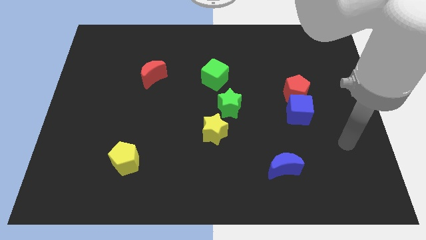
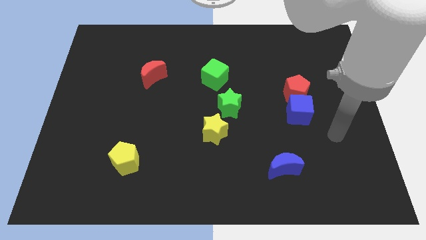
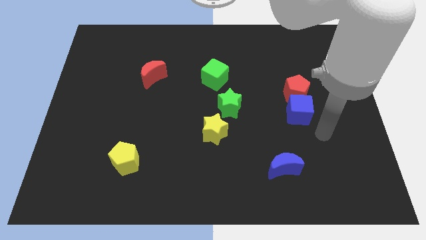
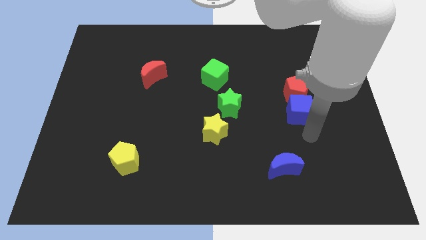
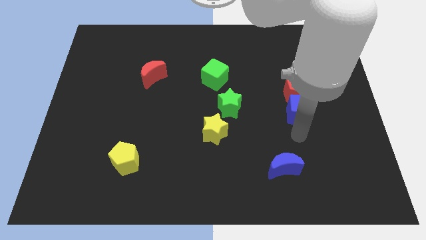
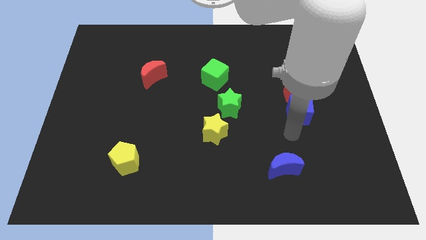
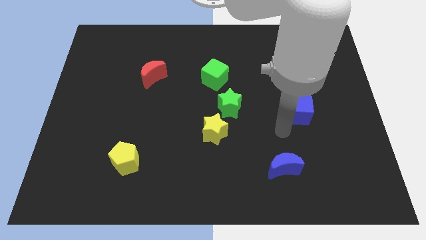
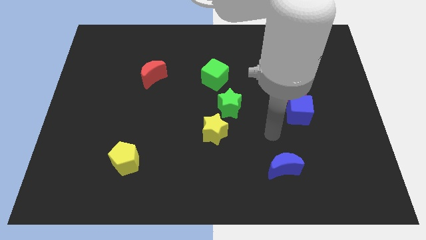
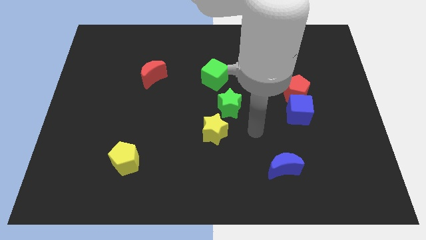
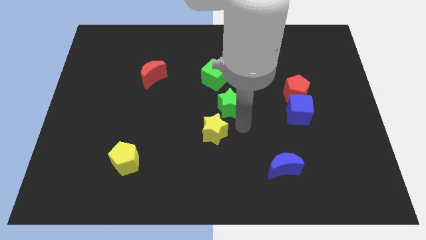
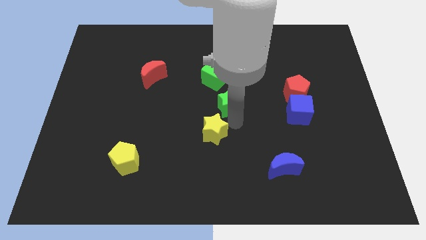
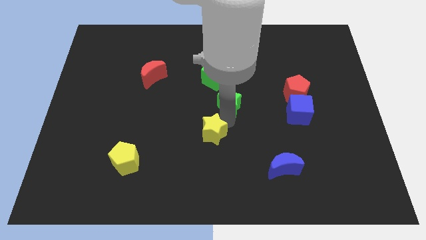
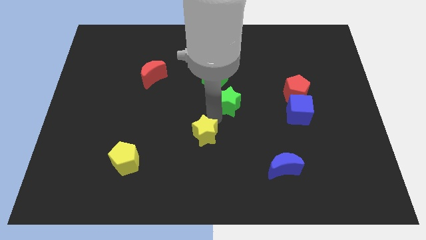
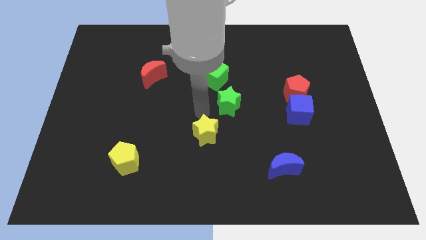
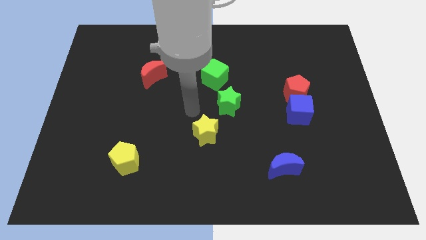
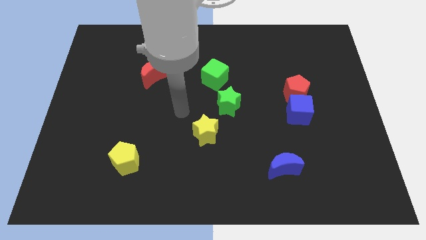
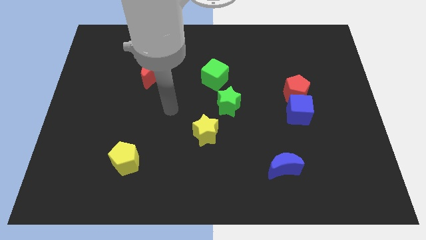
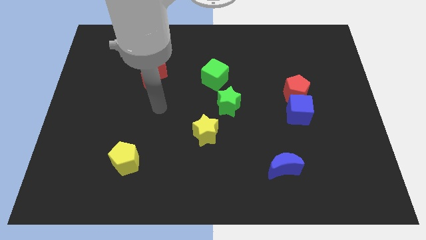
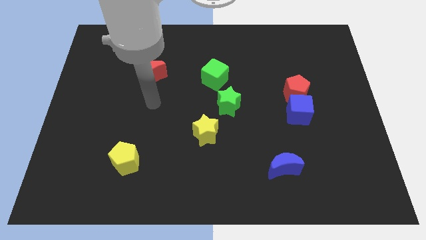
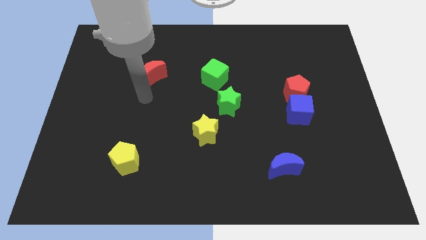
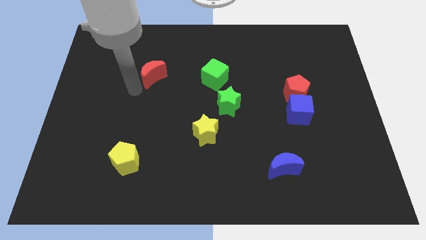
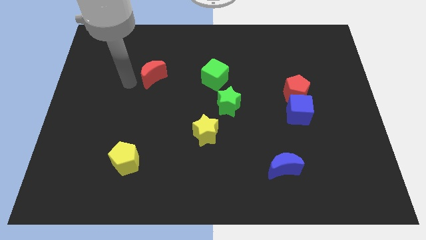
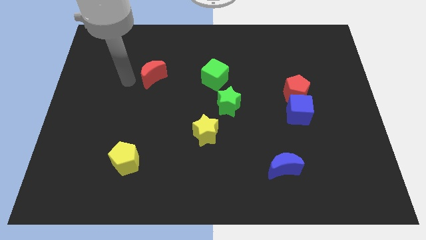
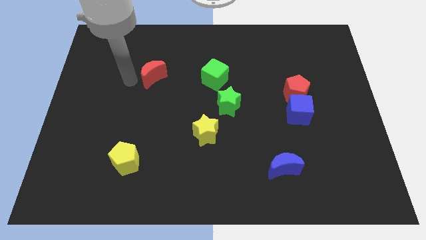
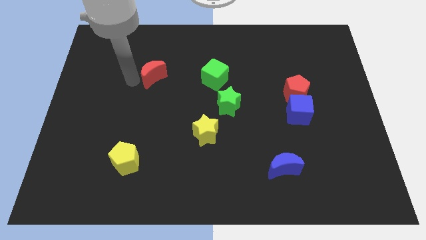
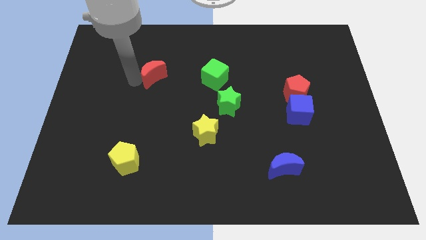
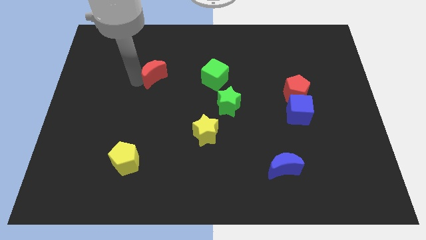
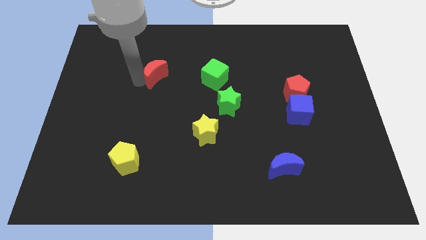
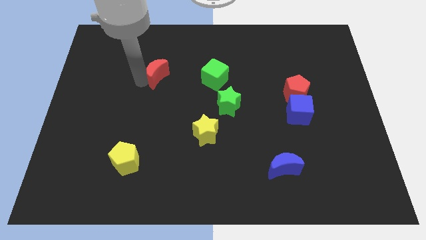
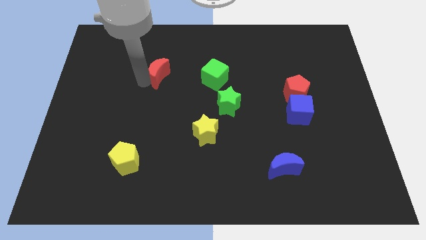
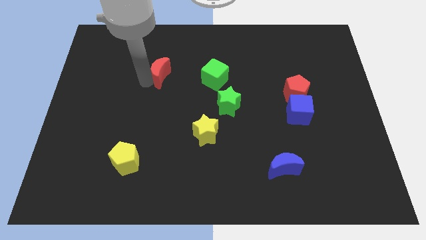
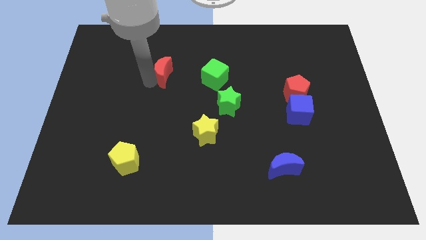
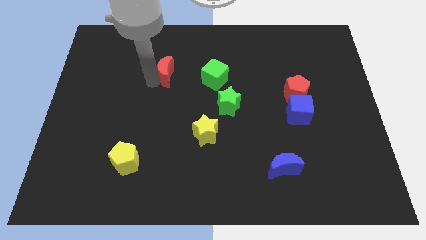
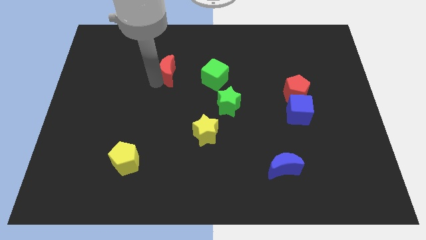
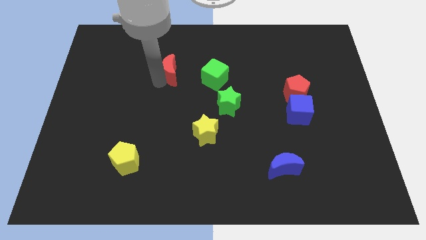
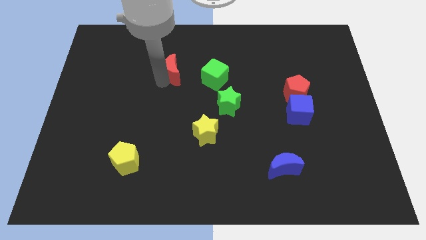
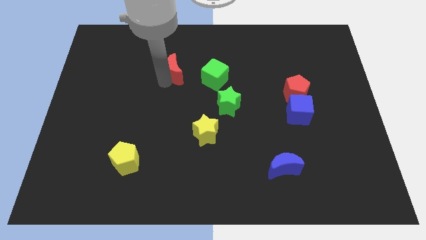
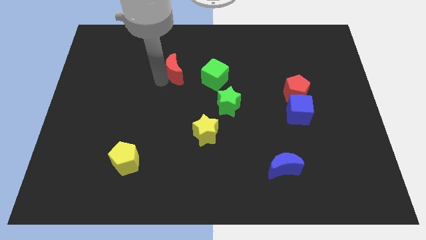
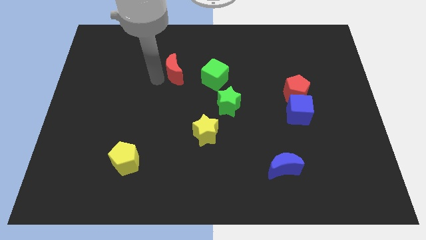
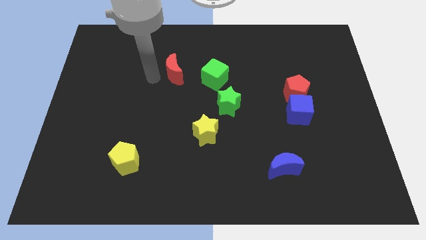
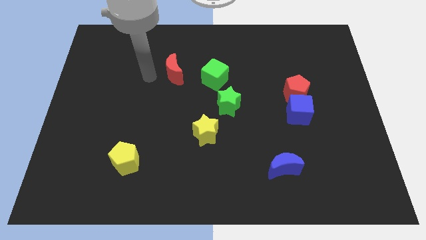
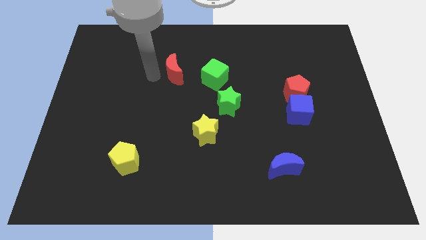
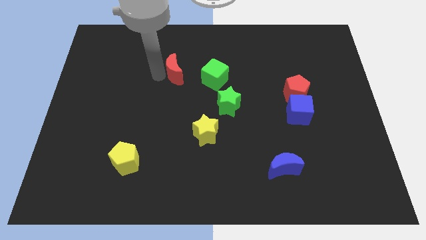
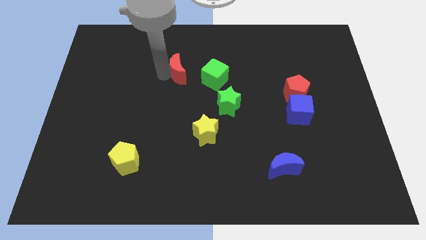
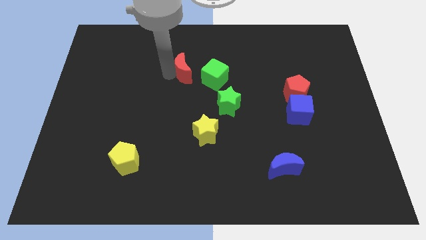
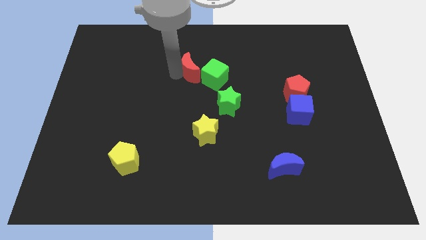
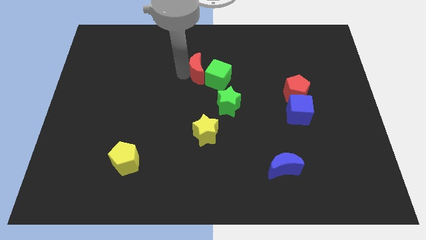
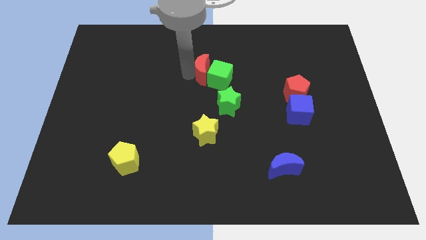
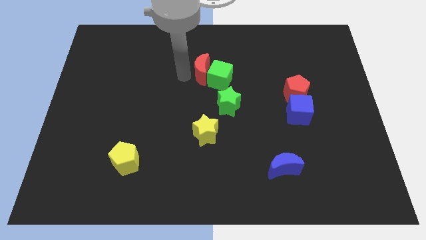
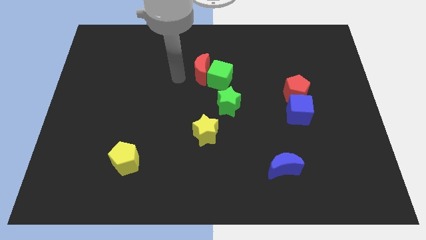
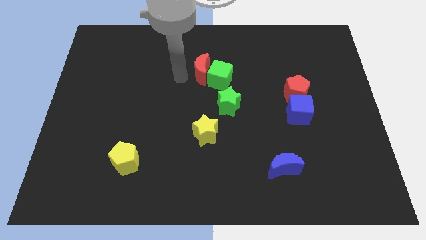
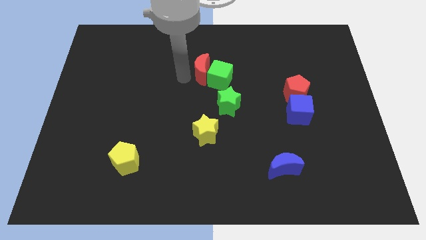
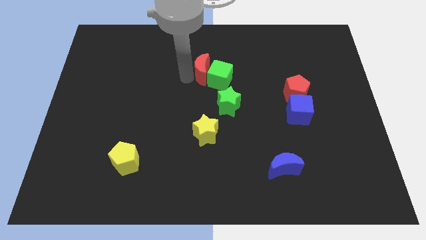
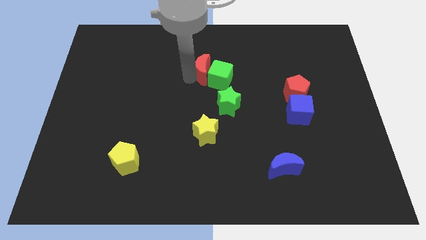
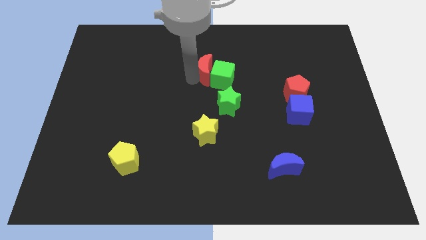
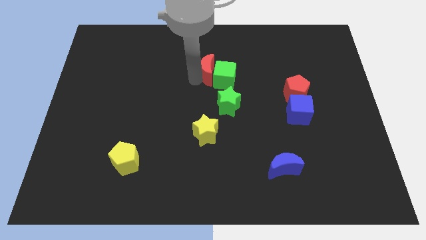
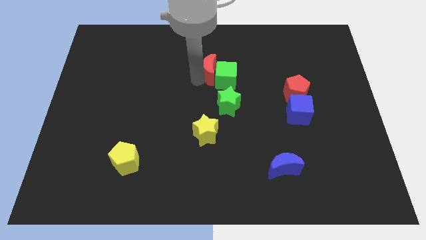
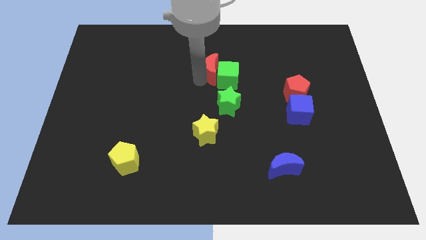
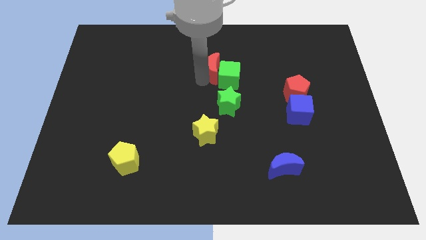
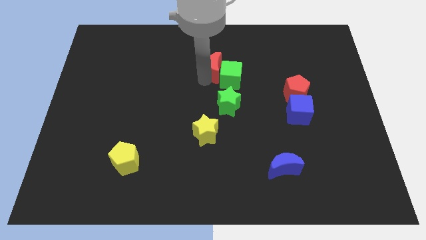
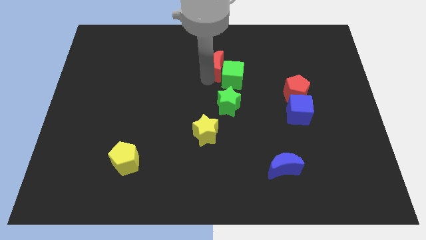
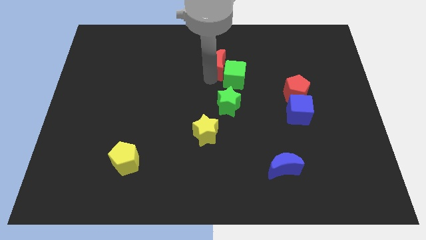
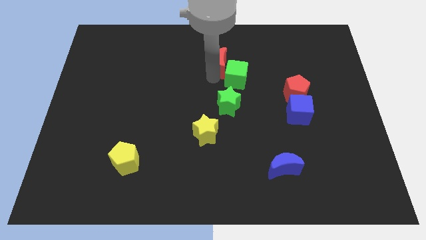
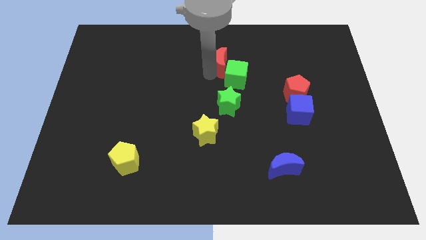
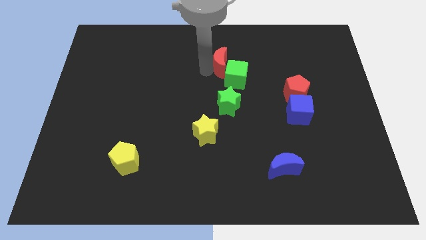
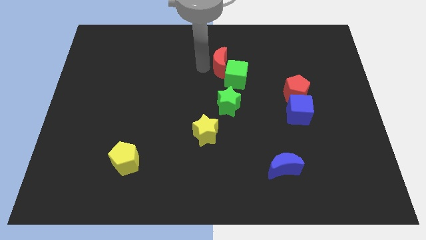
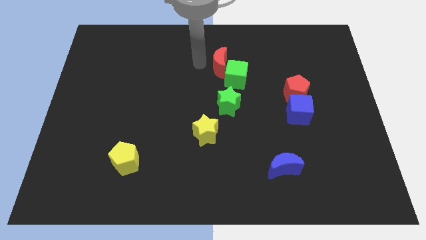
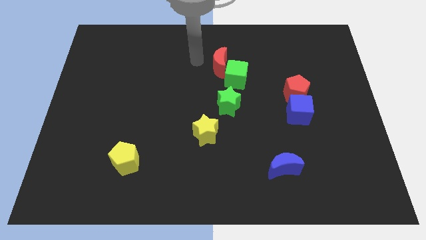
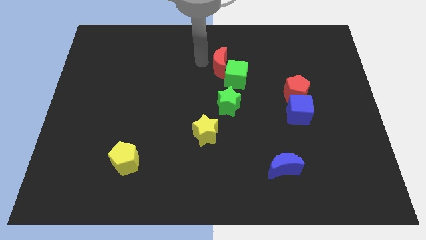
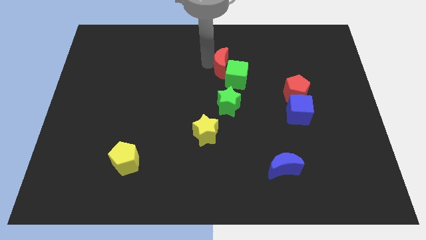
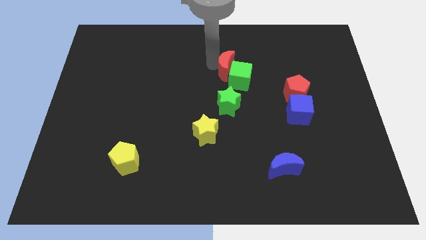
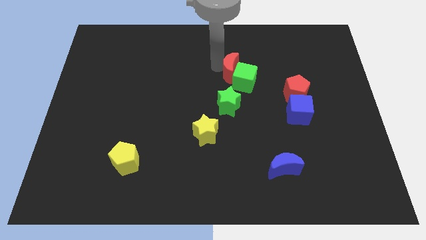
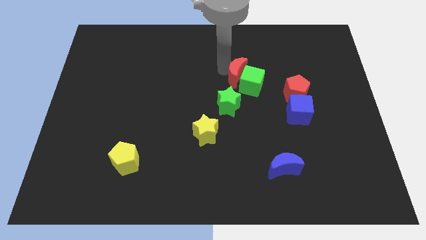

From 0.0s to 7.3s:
slide the red moon right

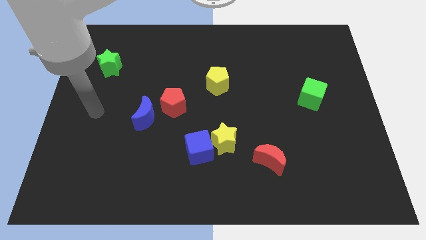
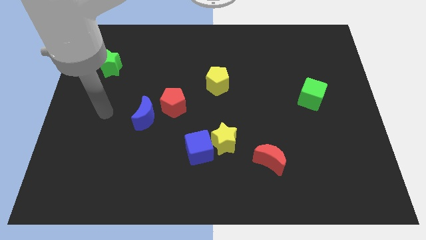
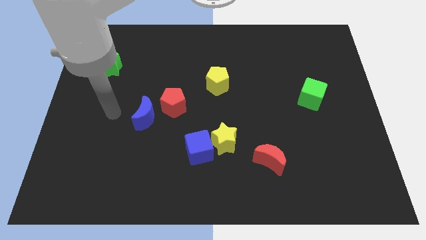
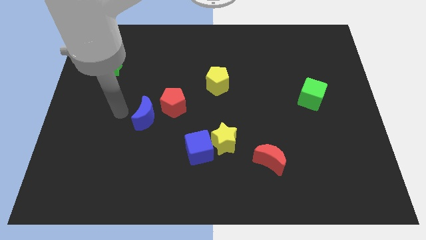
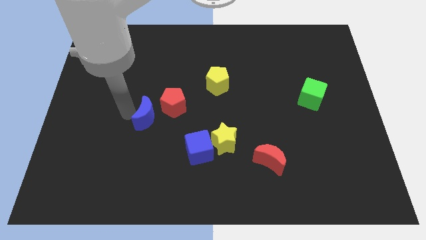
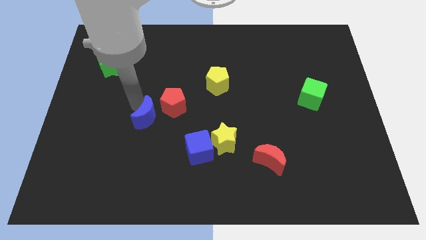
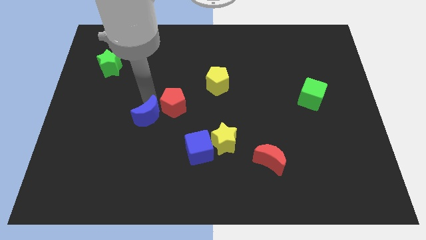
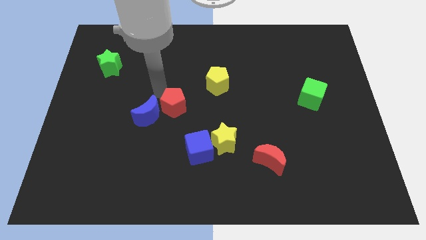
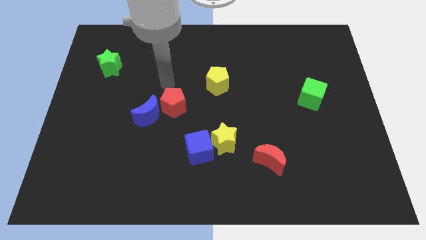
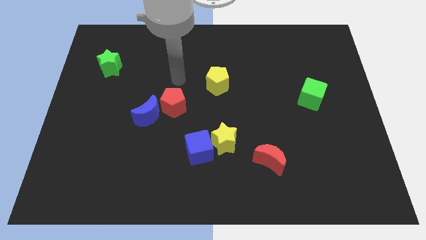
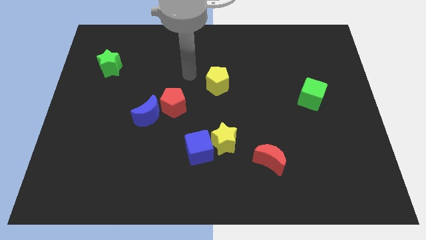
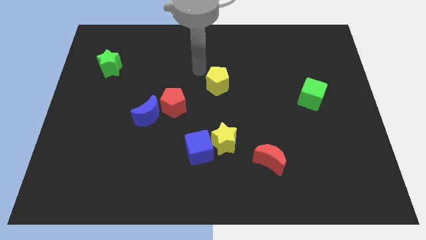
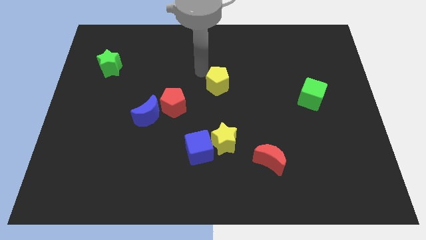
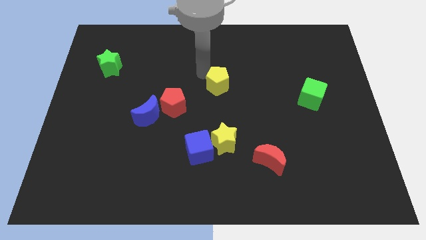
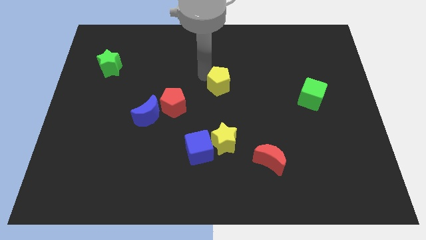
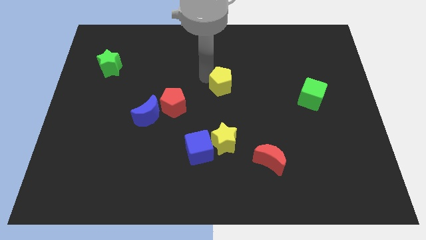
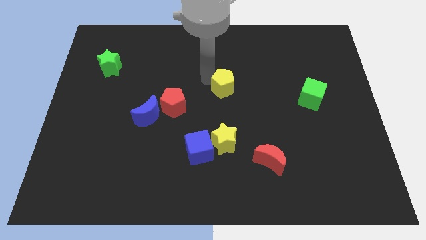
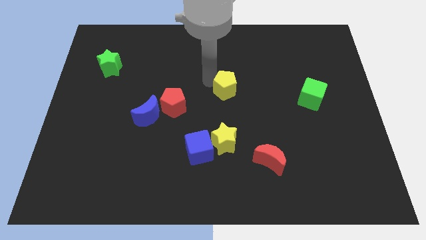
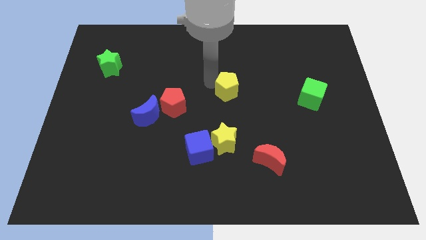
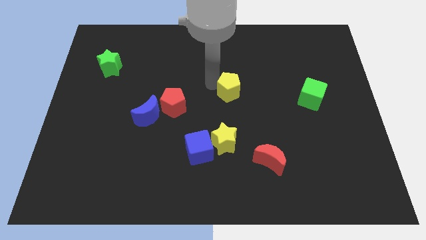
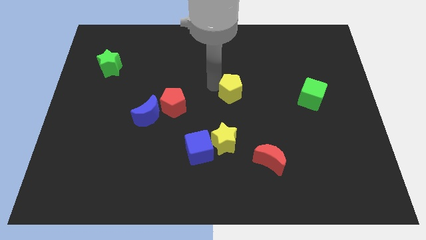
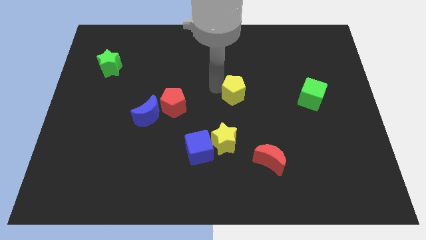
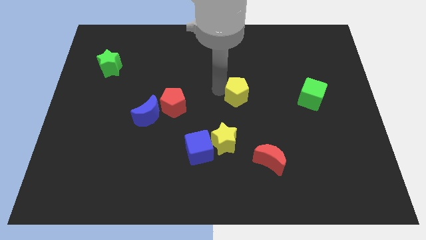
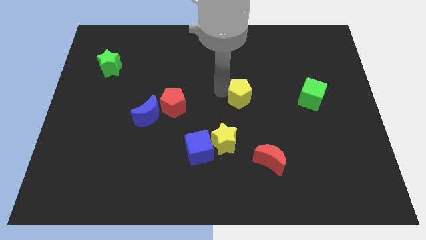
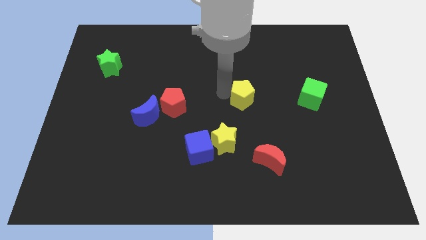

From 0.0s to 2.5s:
push the yellow pentagon slightly downwards and to the right
